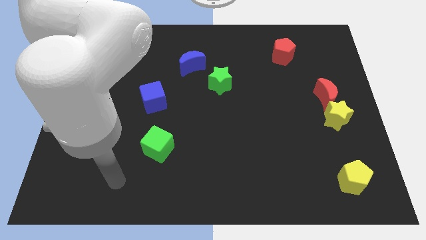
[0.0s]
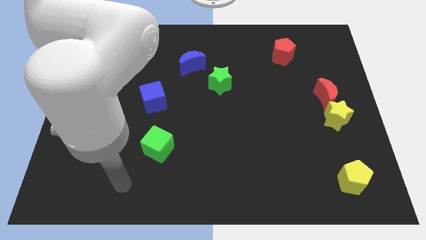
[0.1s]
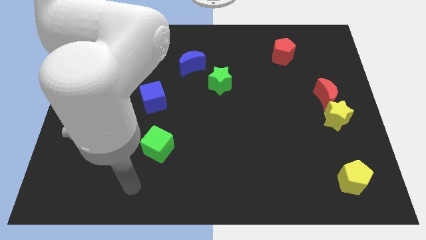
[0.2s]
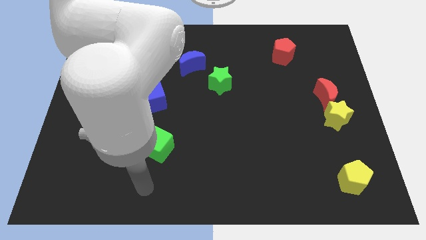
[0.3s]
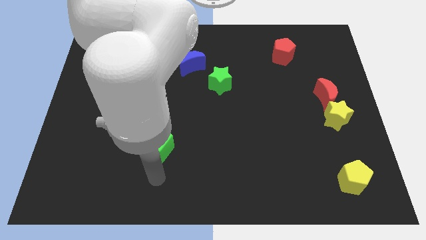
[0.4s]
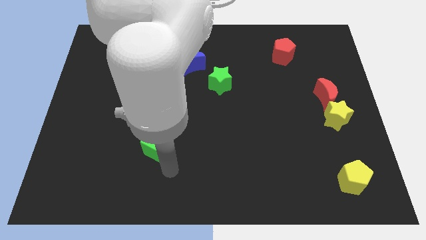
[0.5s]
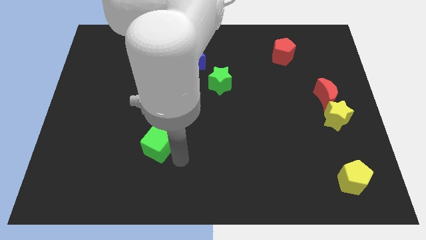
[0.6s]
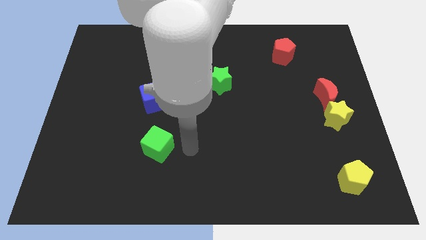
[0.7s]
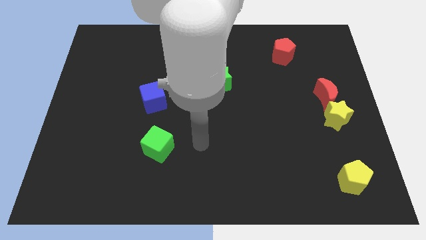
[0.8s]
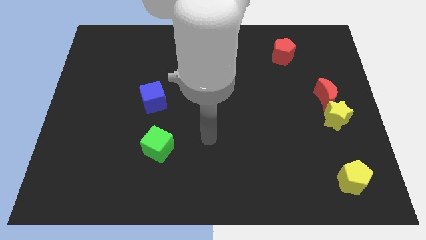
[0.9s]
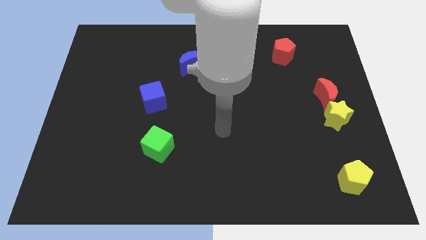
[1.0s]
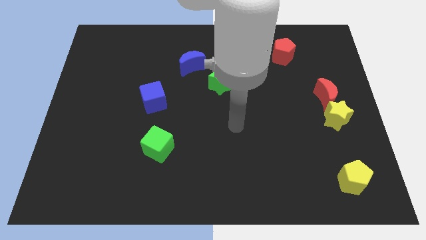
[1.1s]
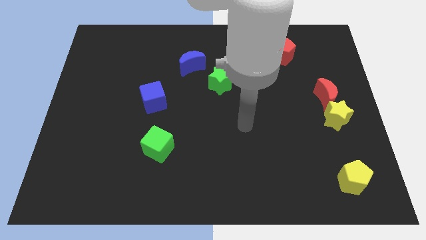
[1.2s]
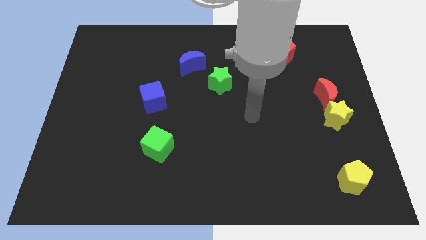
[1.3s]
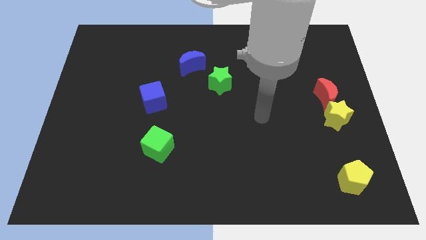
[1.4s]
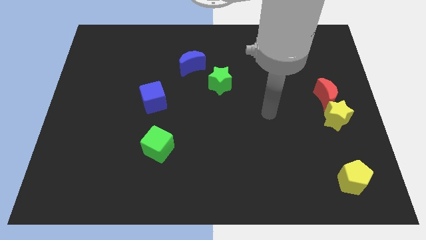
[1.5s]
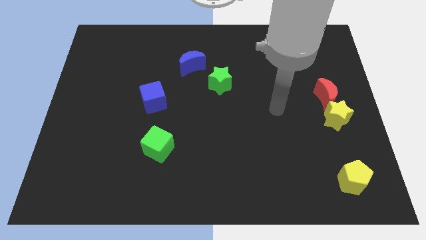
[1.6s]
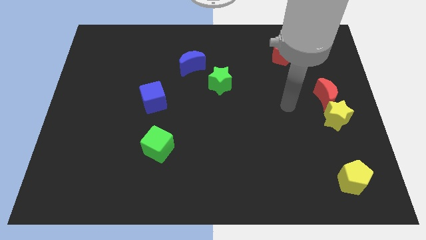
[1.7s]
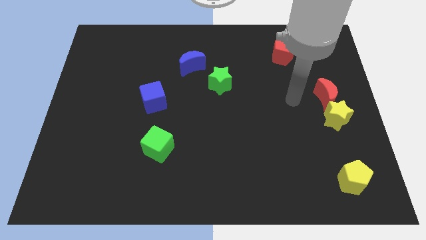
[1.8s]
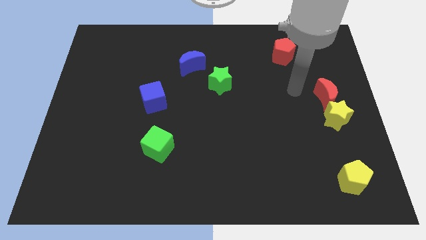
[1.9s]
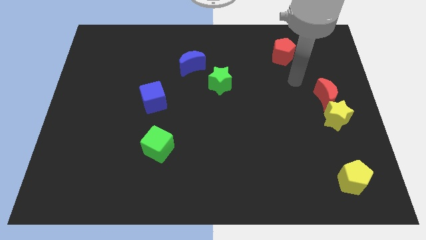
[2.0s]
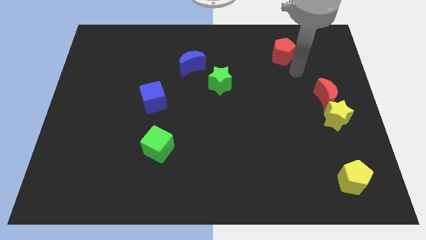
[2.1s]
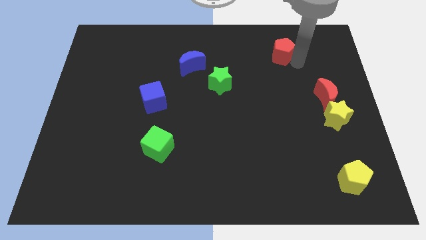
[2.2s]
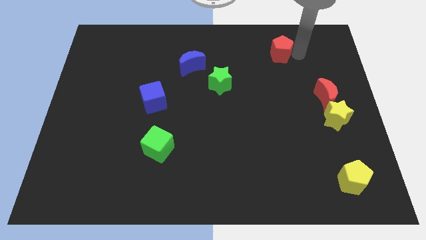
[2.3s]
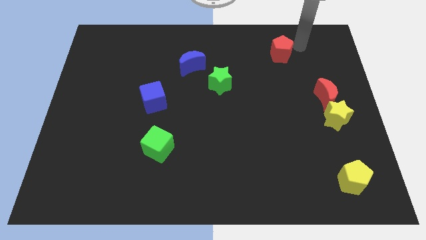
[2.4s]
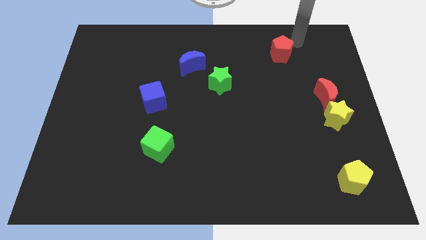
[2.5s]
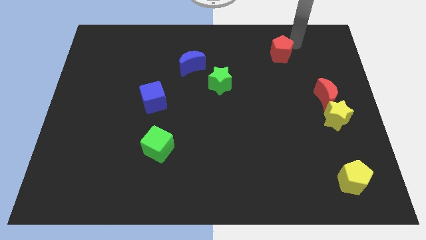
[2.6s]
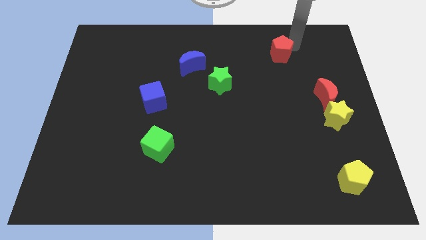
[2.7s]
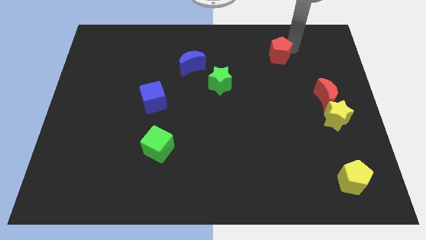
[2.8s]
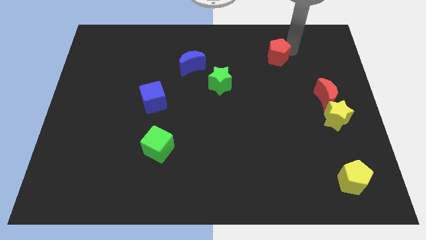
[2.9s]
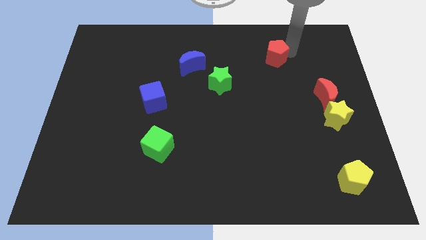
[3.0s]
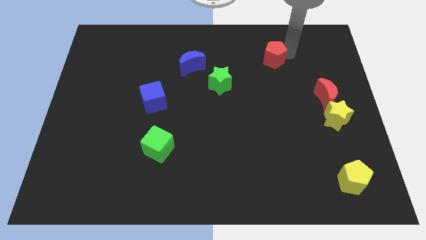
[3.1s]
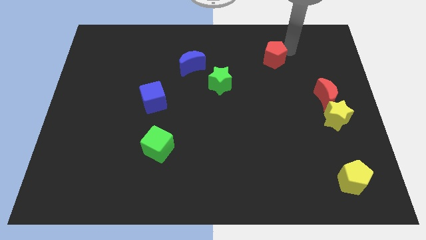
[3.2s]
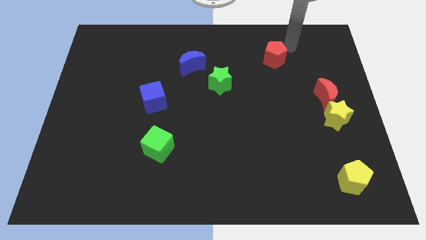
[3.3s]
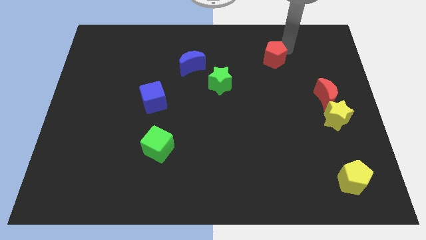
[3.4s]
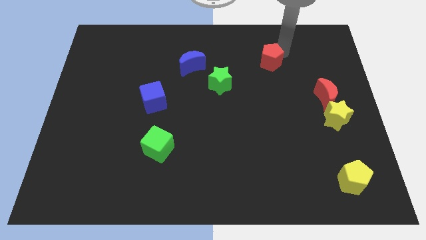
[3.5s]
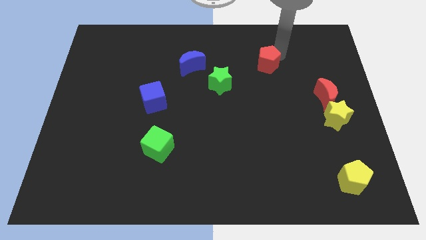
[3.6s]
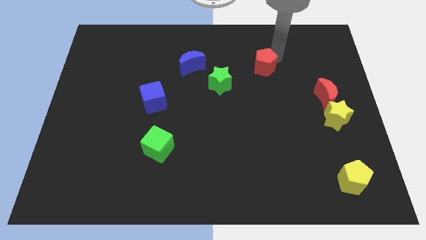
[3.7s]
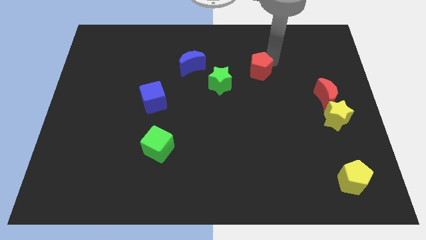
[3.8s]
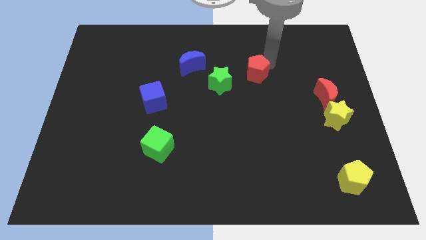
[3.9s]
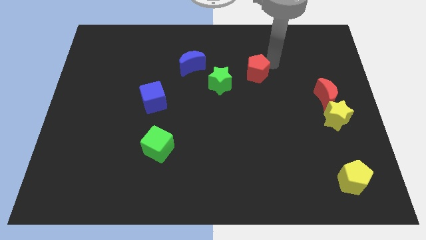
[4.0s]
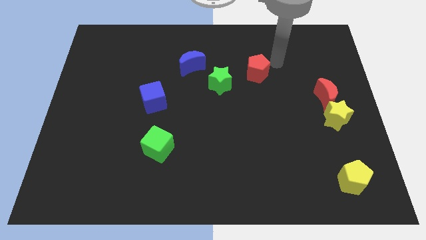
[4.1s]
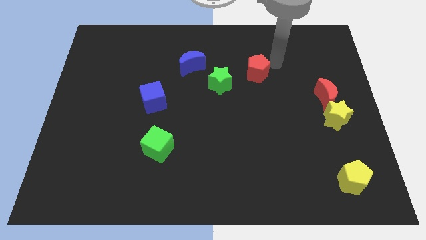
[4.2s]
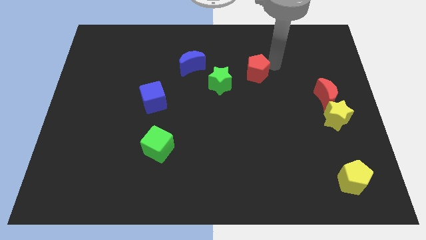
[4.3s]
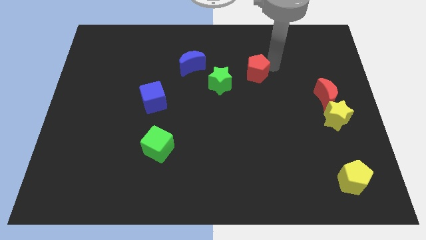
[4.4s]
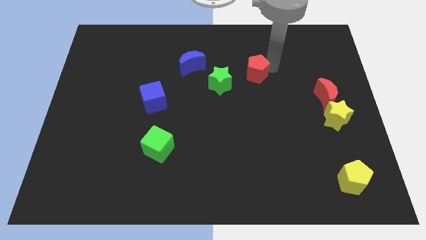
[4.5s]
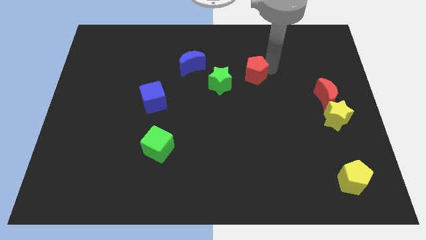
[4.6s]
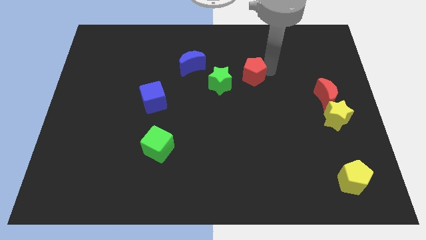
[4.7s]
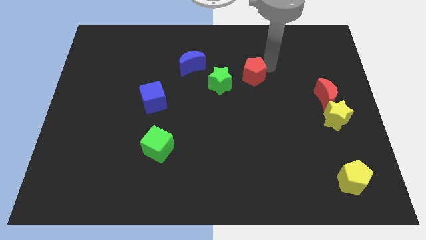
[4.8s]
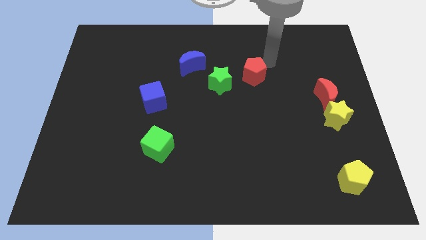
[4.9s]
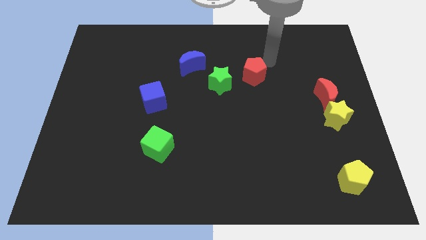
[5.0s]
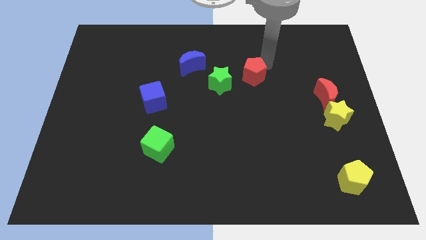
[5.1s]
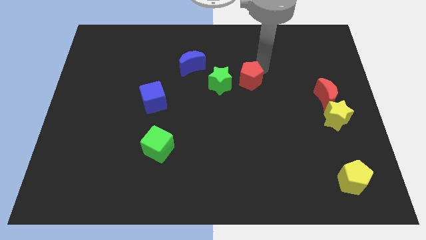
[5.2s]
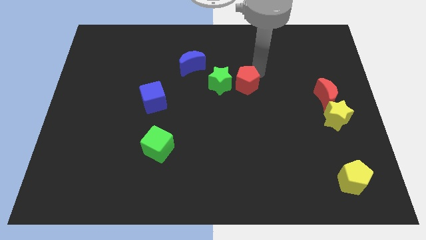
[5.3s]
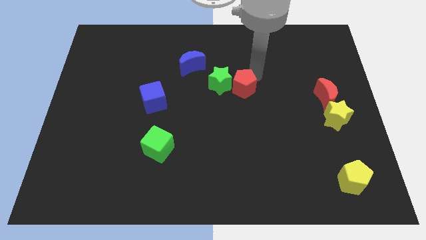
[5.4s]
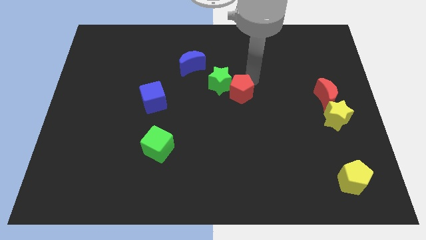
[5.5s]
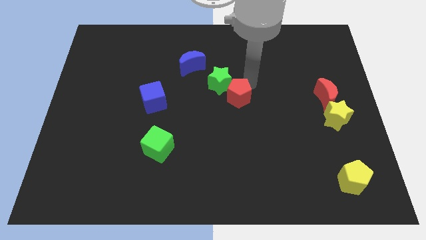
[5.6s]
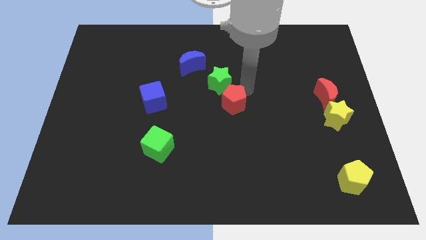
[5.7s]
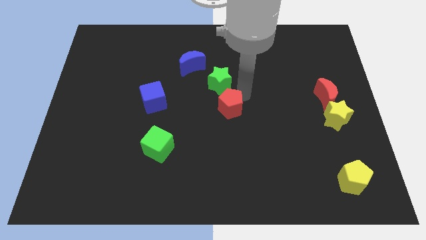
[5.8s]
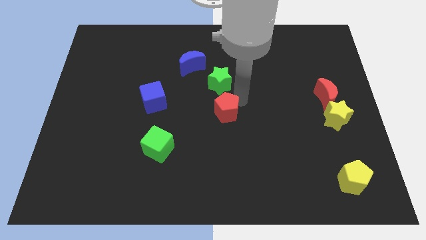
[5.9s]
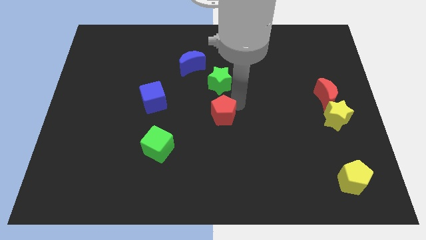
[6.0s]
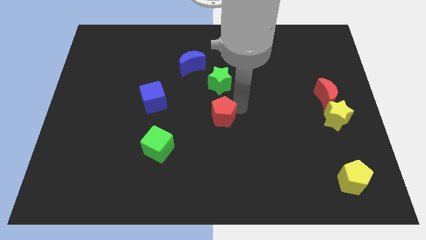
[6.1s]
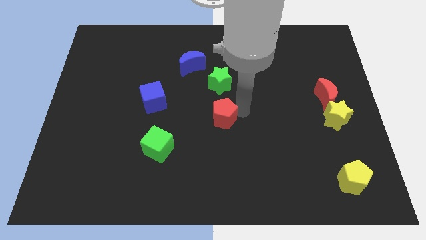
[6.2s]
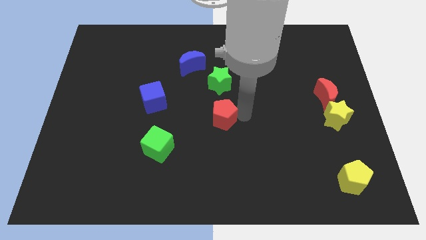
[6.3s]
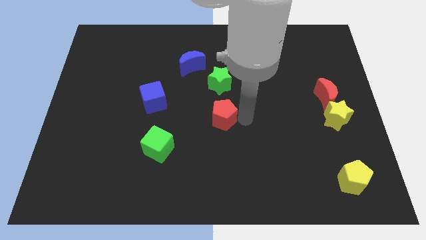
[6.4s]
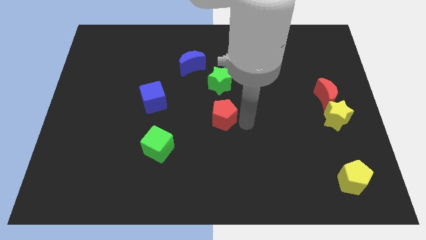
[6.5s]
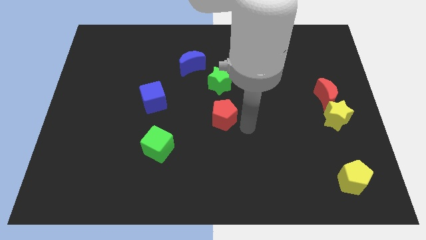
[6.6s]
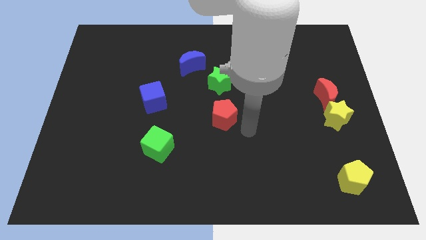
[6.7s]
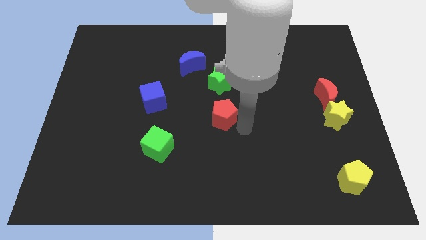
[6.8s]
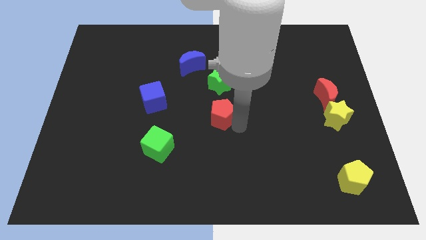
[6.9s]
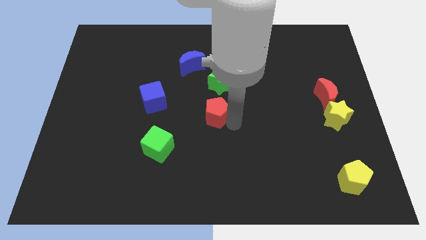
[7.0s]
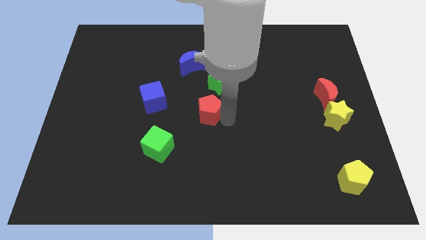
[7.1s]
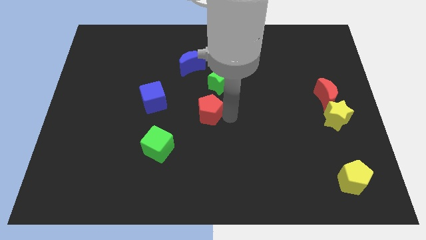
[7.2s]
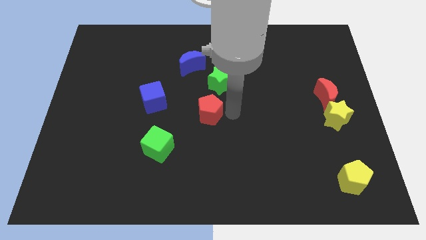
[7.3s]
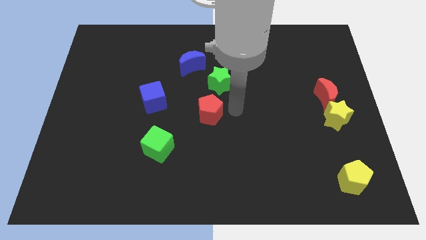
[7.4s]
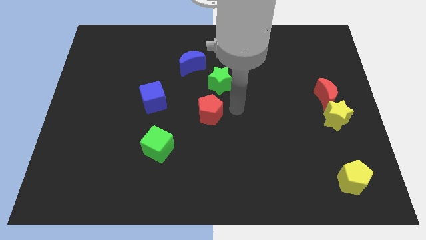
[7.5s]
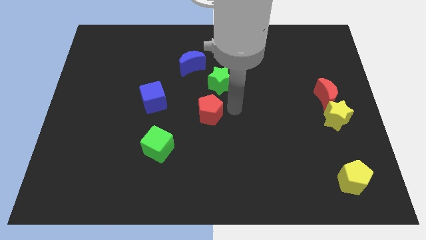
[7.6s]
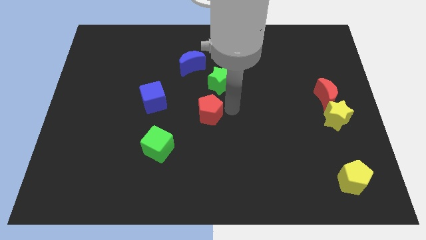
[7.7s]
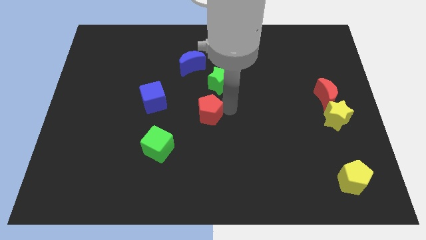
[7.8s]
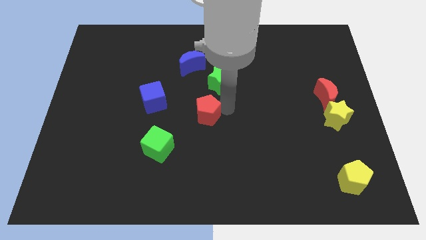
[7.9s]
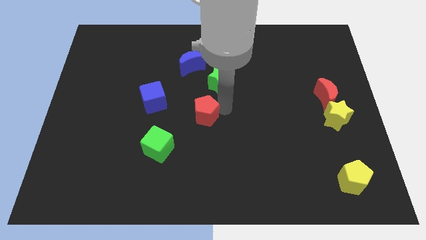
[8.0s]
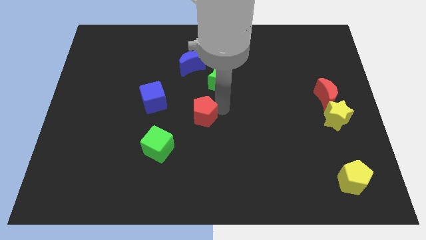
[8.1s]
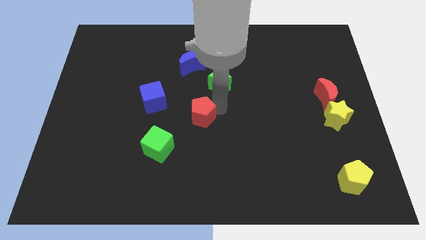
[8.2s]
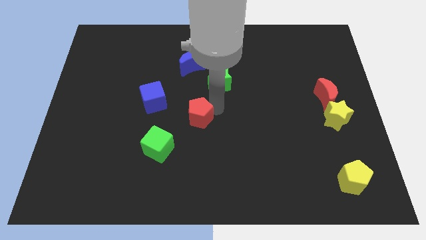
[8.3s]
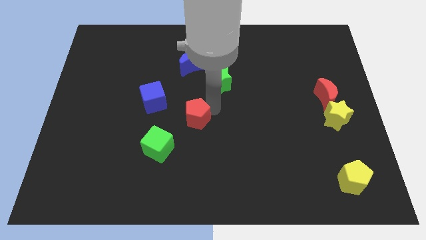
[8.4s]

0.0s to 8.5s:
move the red pentagon to the bottom right of the blue cube
